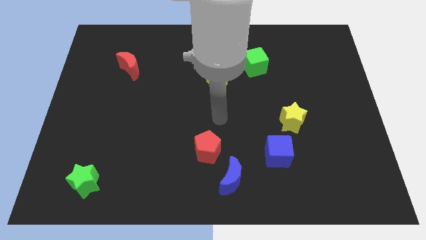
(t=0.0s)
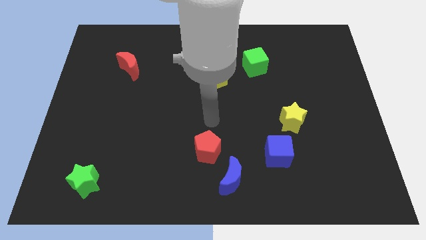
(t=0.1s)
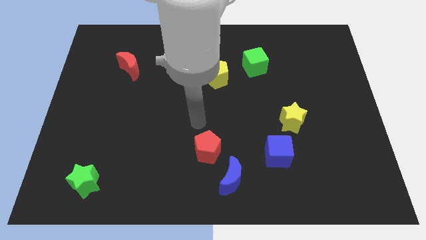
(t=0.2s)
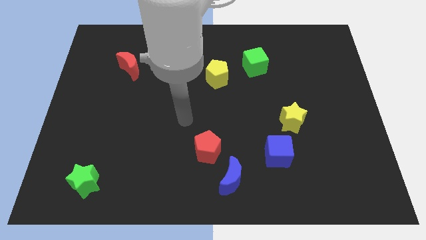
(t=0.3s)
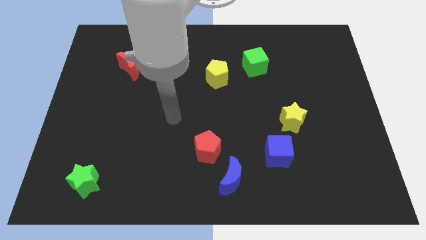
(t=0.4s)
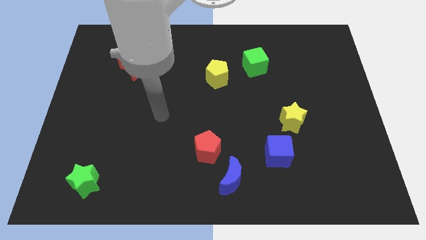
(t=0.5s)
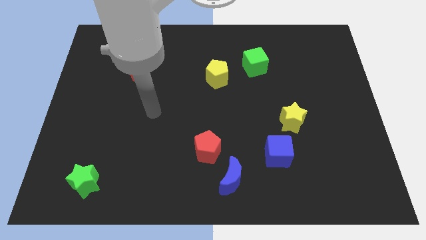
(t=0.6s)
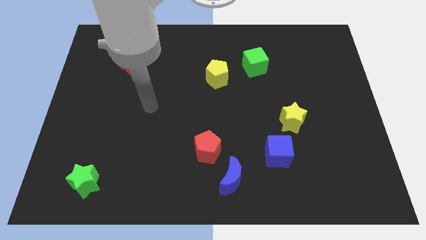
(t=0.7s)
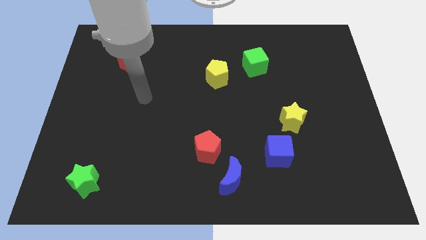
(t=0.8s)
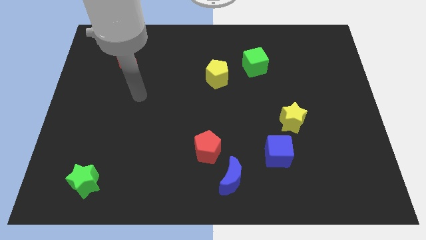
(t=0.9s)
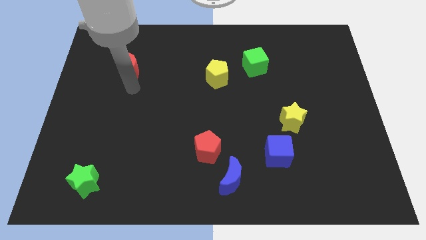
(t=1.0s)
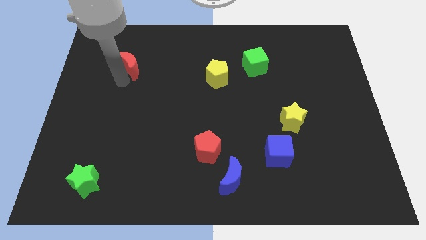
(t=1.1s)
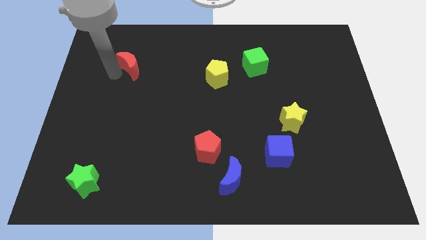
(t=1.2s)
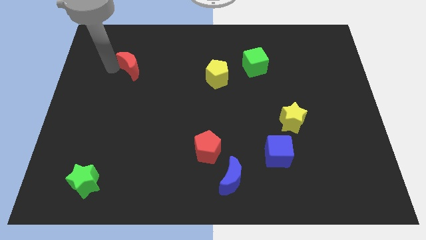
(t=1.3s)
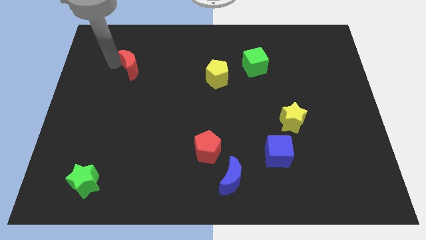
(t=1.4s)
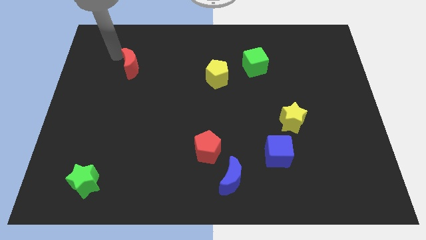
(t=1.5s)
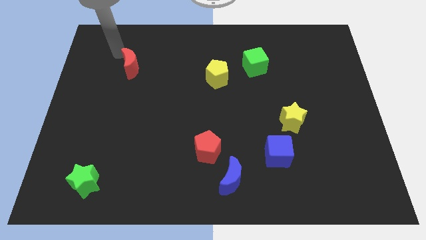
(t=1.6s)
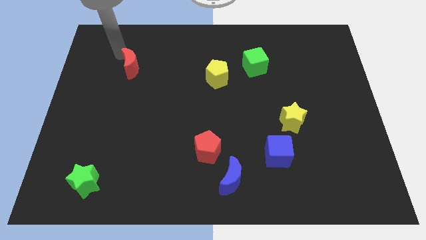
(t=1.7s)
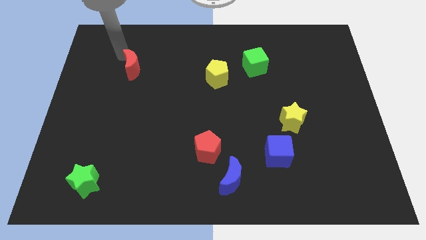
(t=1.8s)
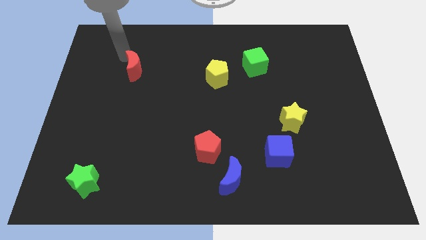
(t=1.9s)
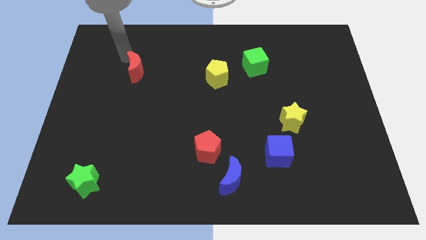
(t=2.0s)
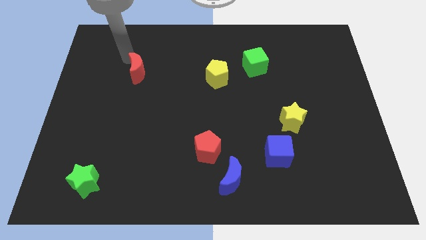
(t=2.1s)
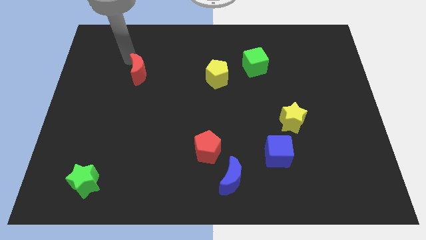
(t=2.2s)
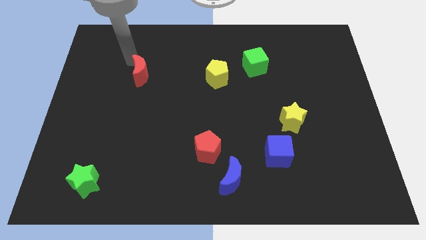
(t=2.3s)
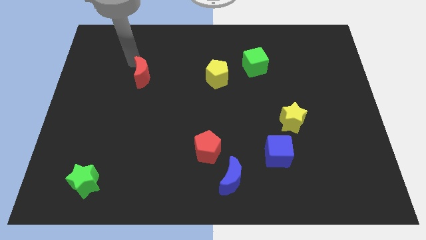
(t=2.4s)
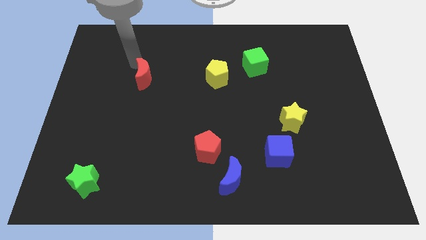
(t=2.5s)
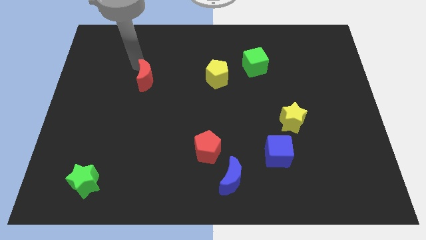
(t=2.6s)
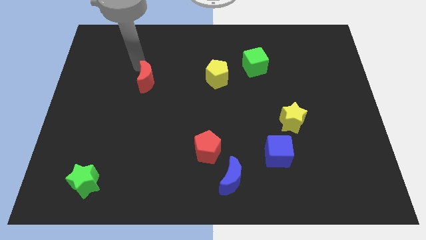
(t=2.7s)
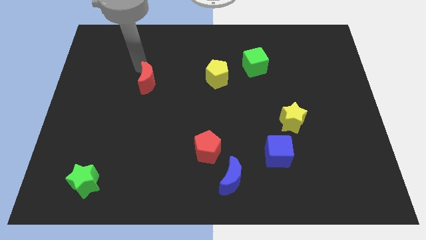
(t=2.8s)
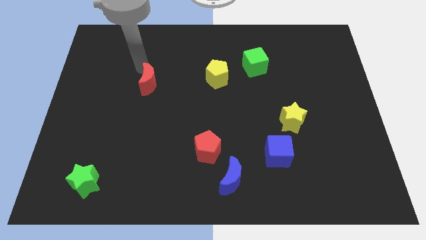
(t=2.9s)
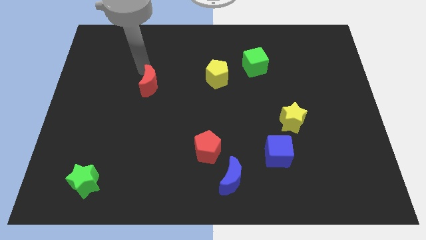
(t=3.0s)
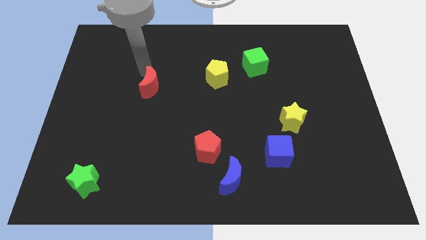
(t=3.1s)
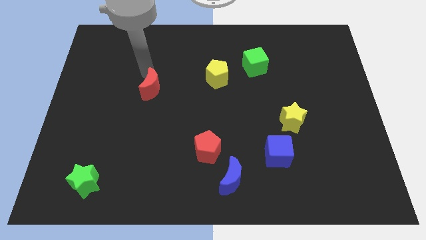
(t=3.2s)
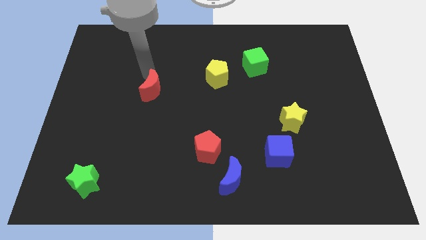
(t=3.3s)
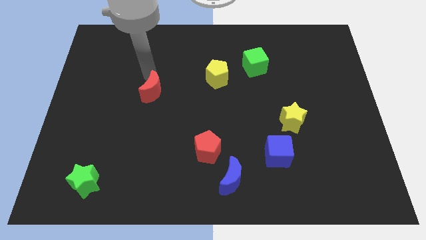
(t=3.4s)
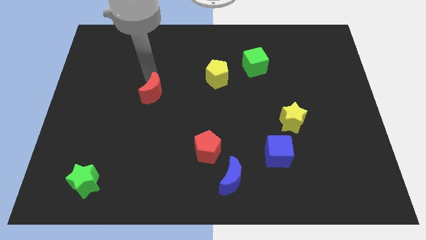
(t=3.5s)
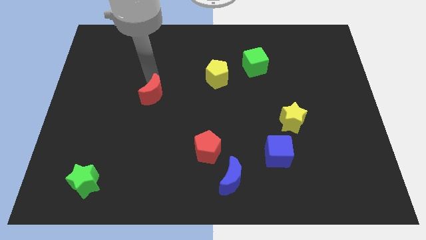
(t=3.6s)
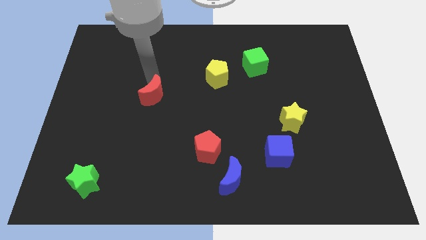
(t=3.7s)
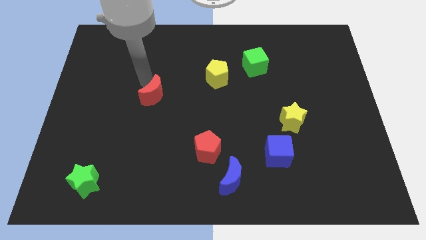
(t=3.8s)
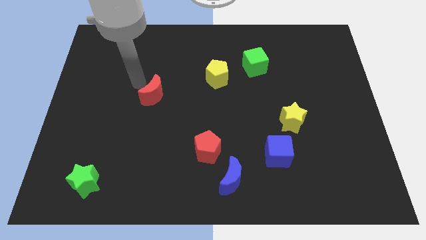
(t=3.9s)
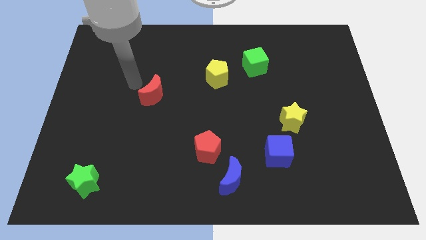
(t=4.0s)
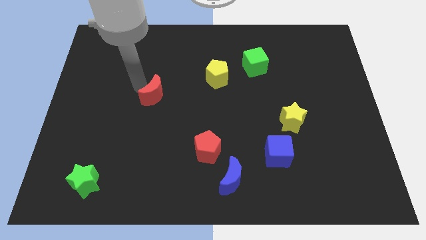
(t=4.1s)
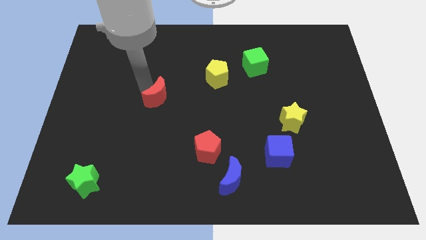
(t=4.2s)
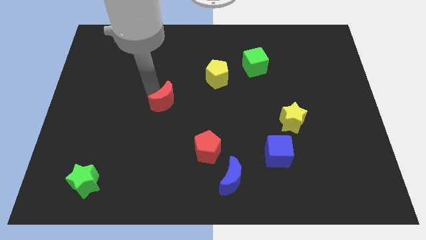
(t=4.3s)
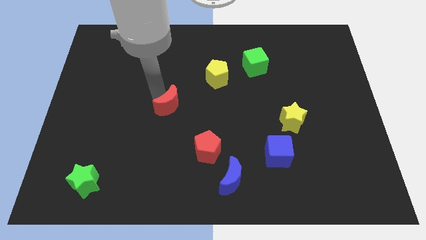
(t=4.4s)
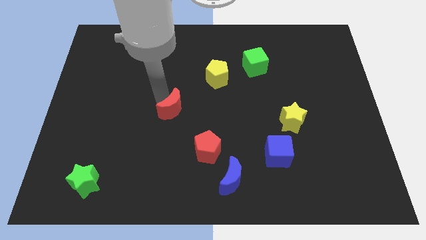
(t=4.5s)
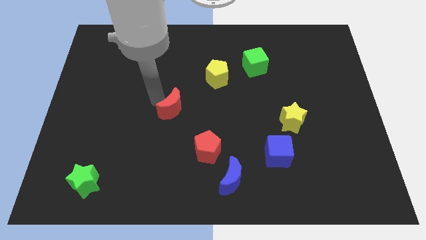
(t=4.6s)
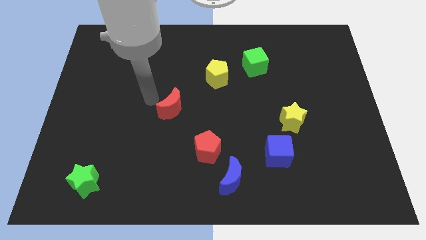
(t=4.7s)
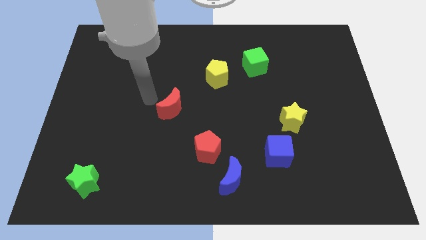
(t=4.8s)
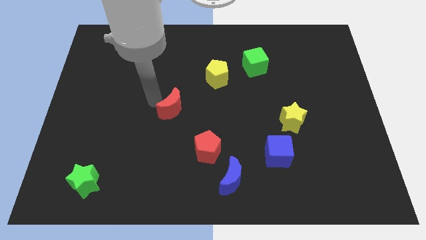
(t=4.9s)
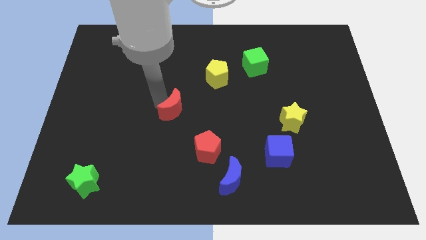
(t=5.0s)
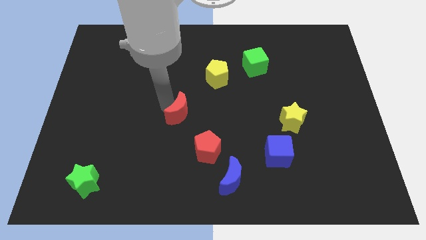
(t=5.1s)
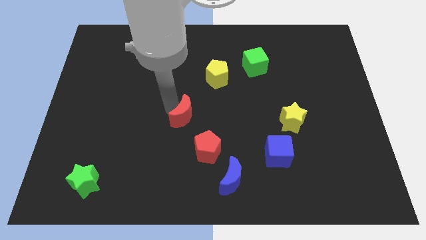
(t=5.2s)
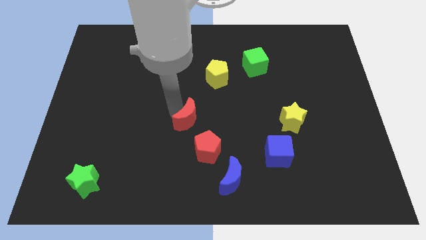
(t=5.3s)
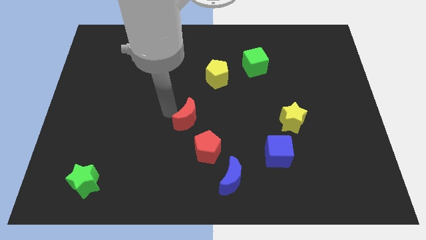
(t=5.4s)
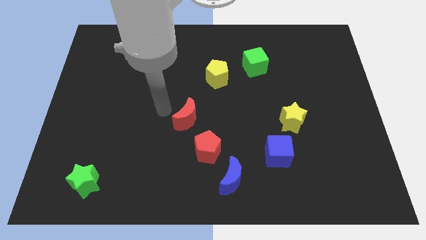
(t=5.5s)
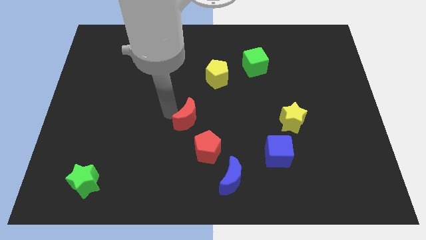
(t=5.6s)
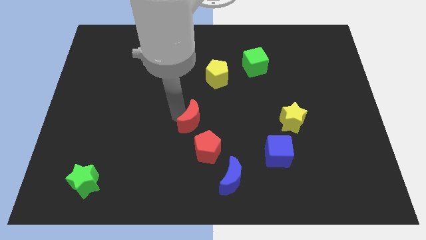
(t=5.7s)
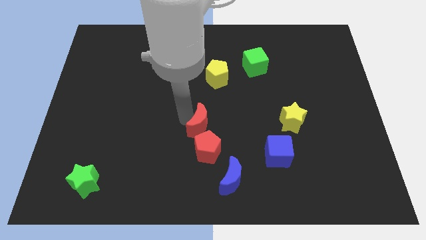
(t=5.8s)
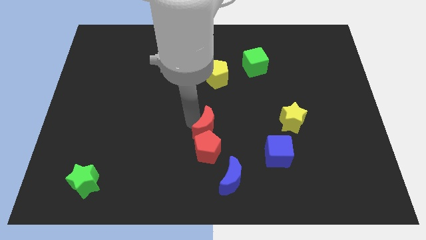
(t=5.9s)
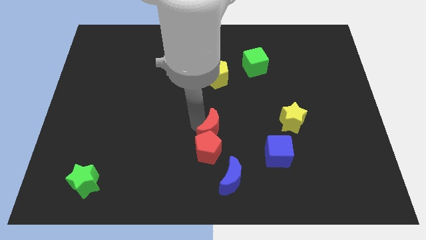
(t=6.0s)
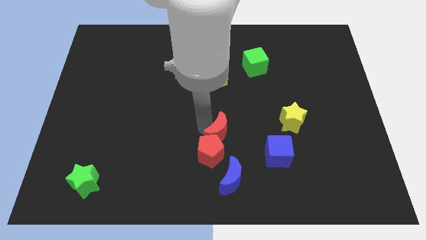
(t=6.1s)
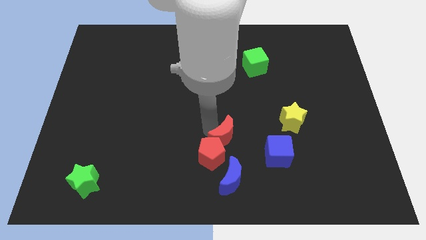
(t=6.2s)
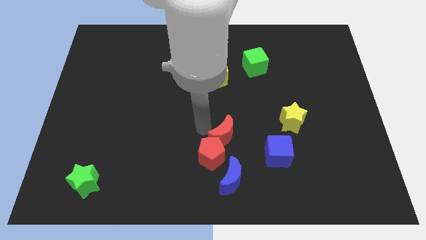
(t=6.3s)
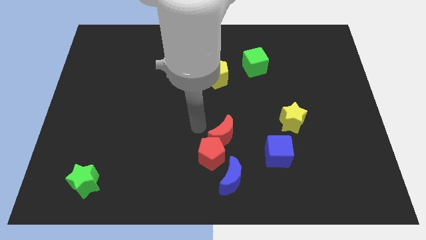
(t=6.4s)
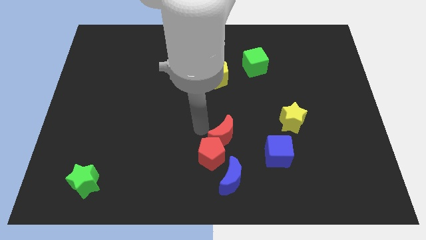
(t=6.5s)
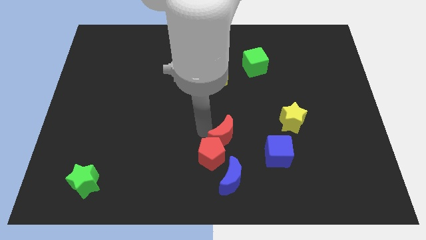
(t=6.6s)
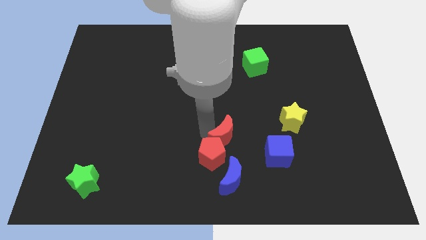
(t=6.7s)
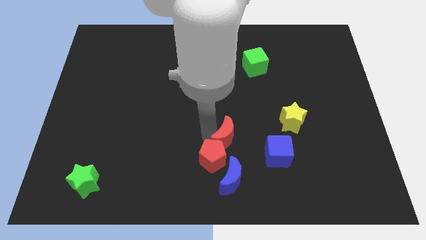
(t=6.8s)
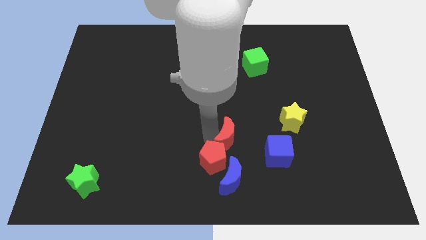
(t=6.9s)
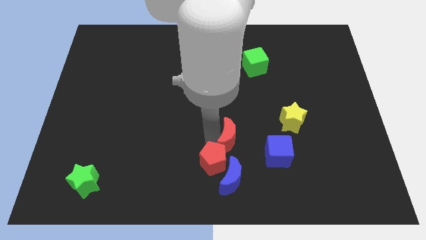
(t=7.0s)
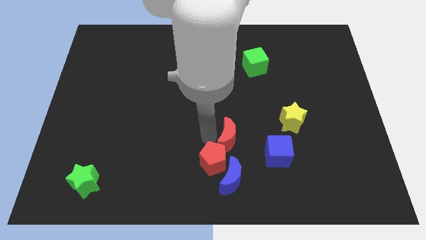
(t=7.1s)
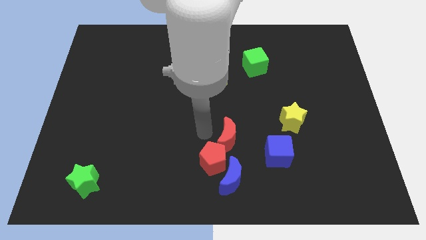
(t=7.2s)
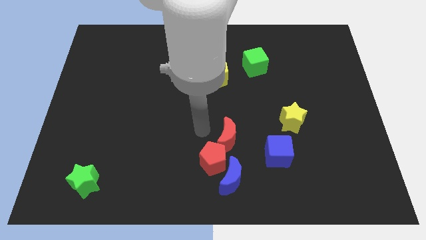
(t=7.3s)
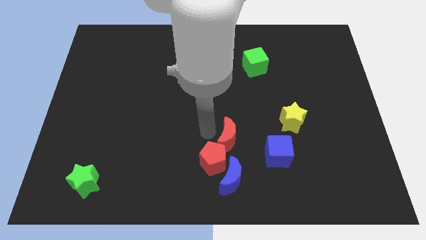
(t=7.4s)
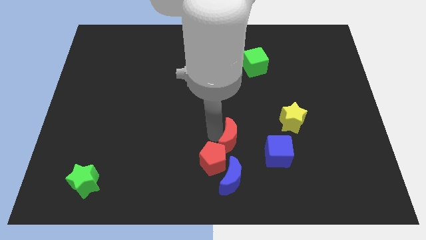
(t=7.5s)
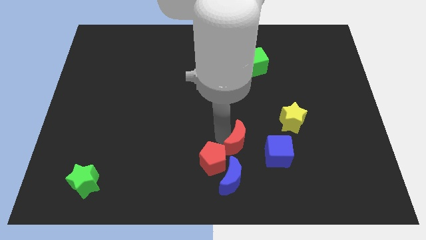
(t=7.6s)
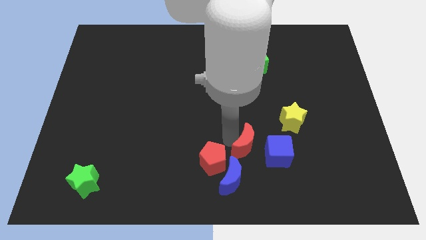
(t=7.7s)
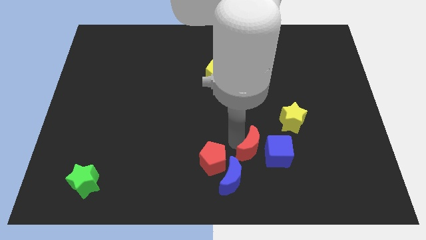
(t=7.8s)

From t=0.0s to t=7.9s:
slide the red moon to the bottom left side of the yellow star

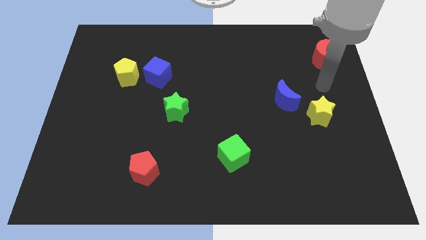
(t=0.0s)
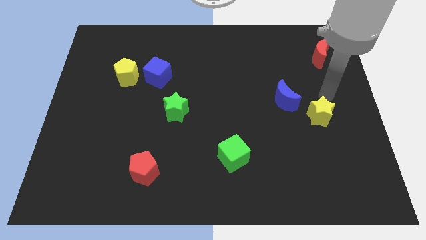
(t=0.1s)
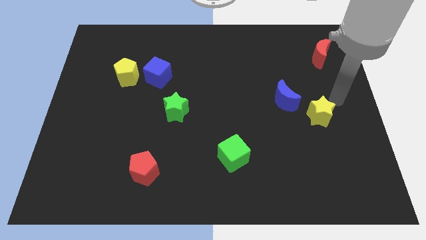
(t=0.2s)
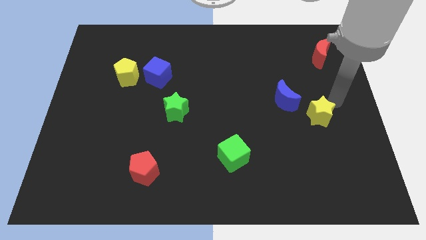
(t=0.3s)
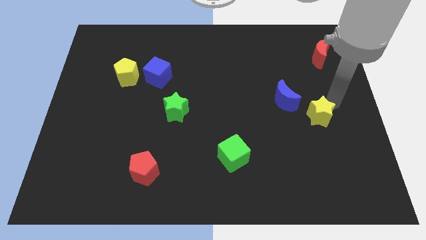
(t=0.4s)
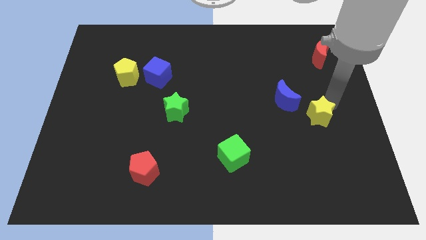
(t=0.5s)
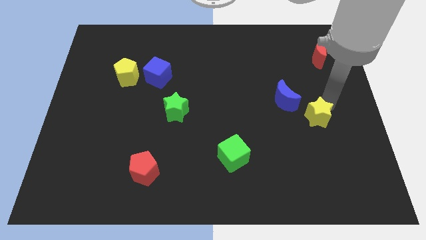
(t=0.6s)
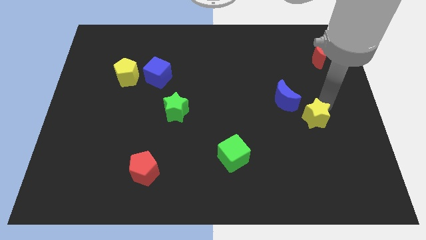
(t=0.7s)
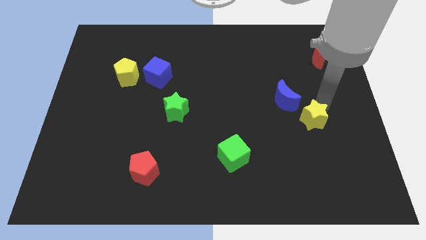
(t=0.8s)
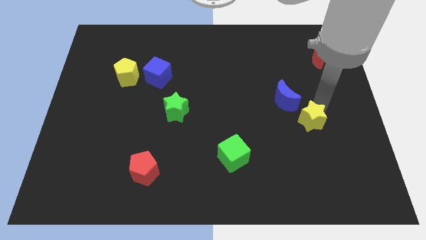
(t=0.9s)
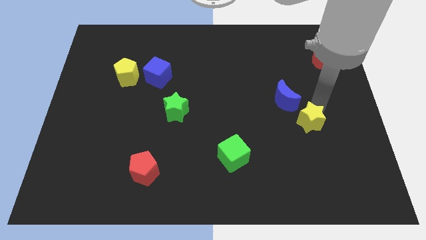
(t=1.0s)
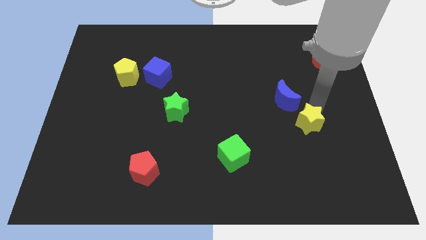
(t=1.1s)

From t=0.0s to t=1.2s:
put the yellow star to the bottom of the blue moon
